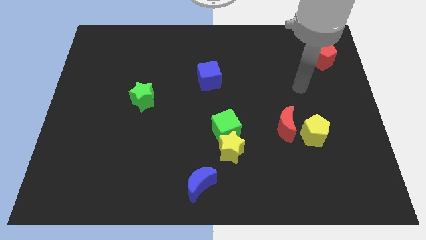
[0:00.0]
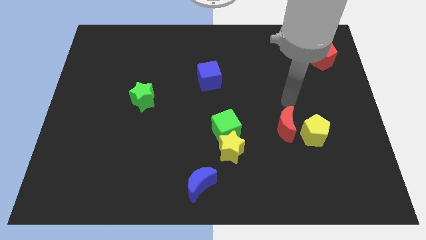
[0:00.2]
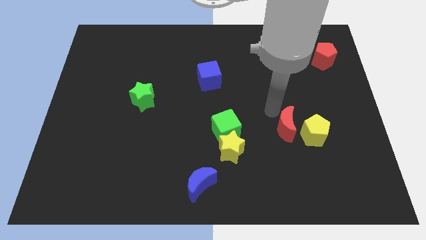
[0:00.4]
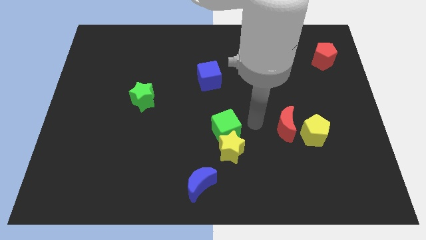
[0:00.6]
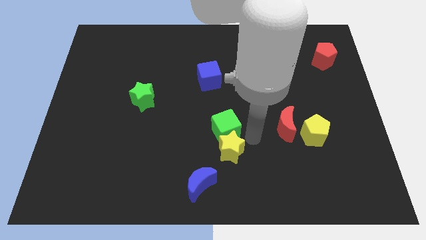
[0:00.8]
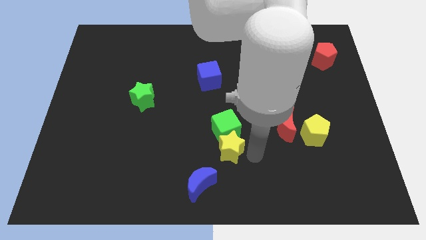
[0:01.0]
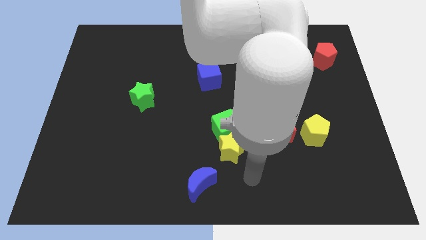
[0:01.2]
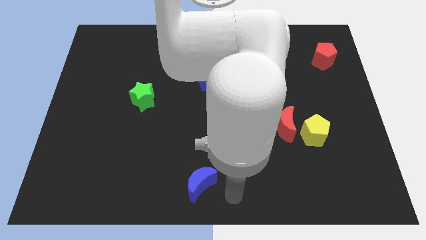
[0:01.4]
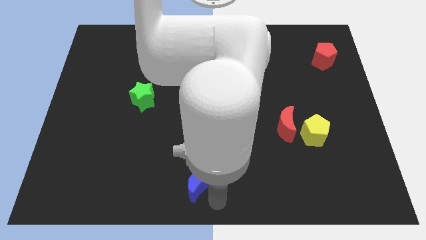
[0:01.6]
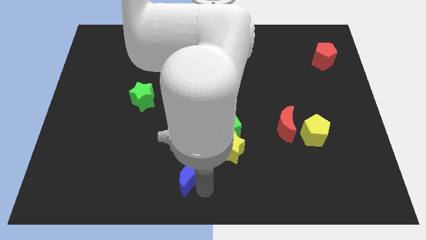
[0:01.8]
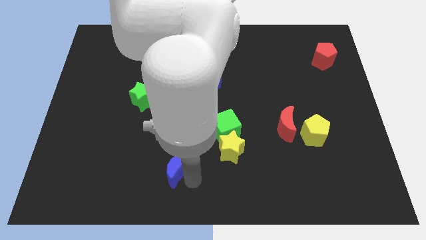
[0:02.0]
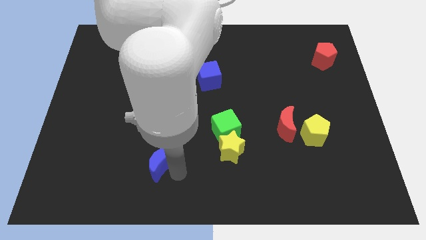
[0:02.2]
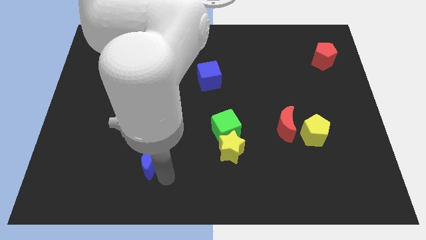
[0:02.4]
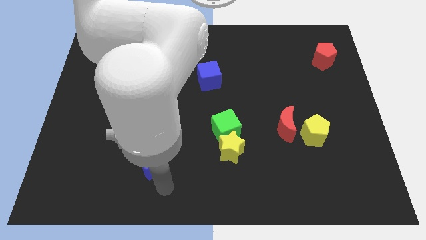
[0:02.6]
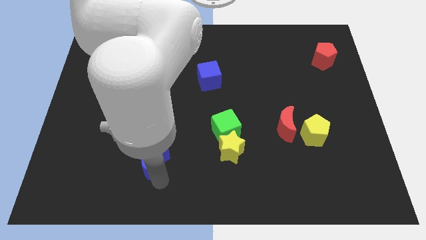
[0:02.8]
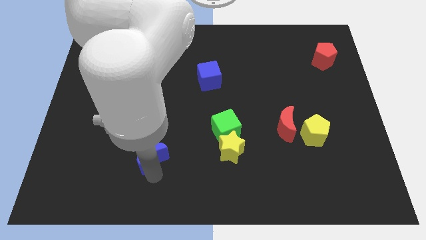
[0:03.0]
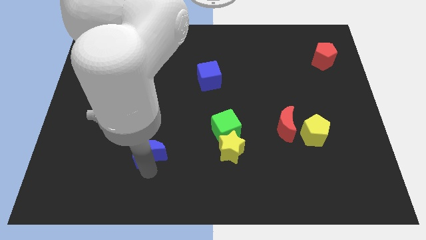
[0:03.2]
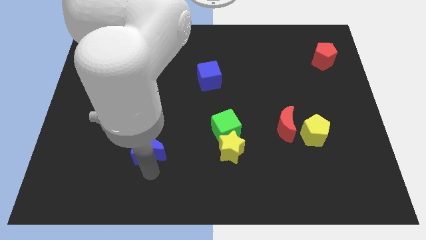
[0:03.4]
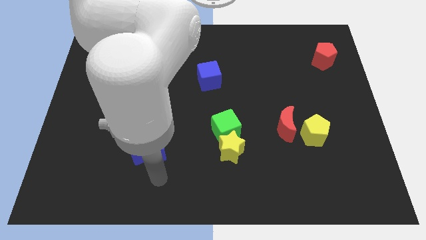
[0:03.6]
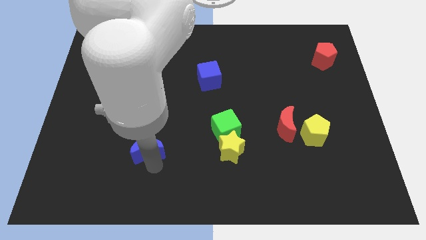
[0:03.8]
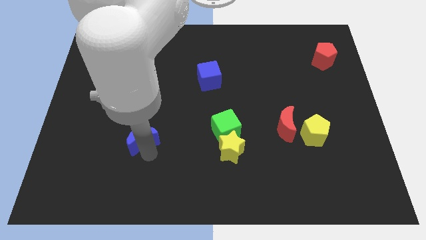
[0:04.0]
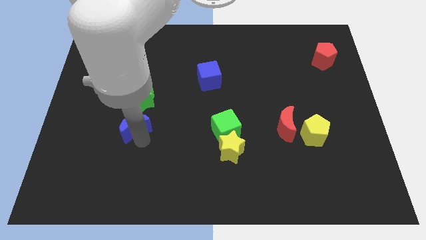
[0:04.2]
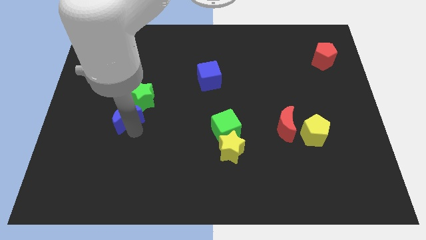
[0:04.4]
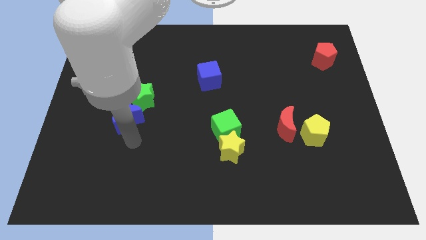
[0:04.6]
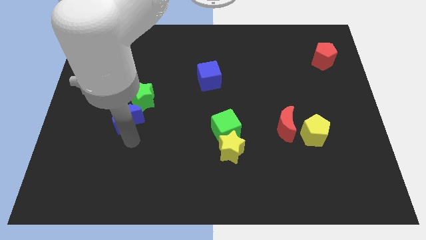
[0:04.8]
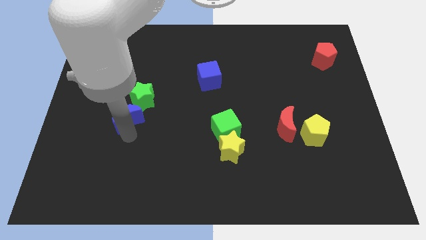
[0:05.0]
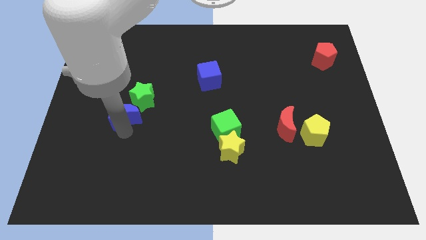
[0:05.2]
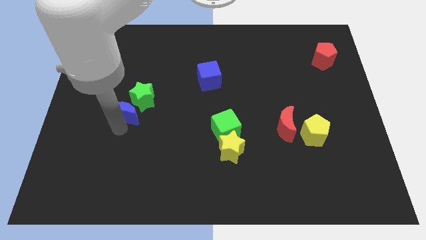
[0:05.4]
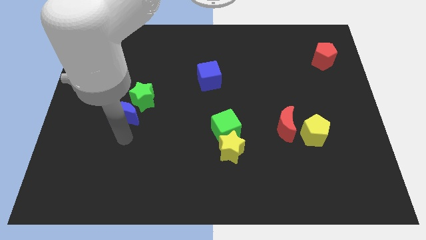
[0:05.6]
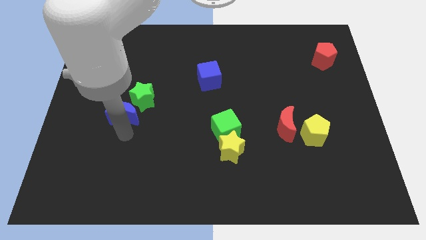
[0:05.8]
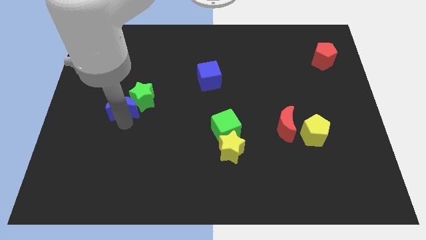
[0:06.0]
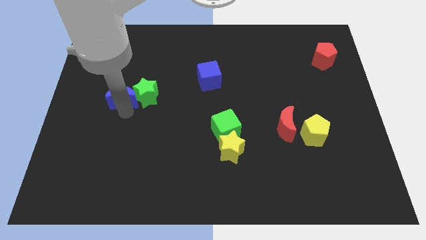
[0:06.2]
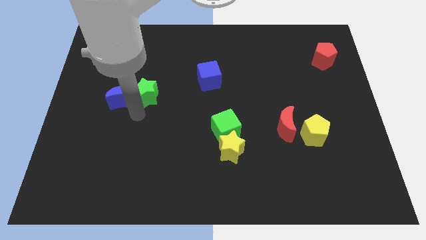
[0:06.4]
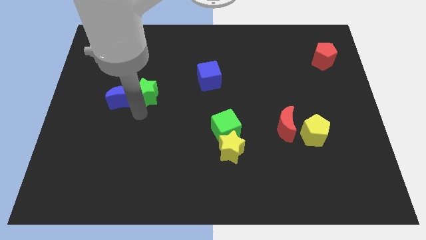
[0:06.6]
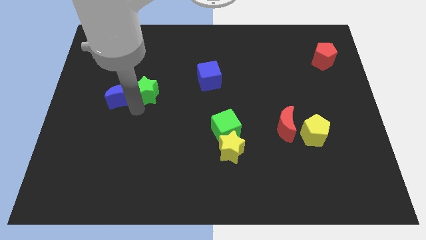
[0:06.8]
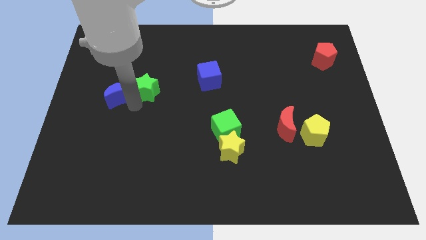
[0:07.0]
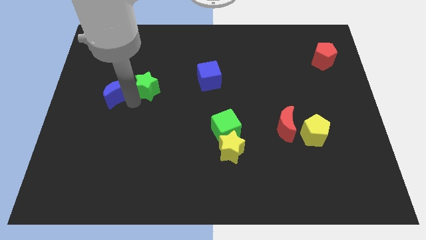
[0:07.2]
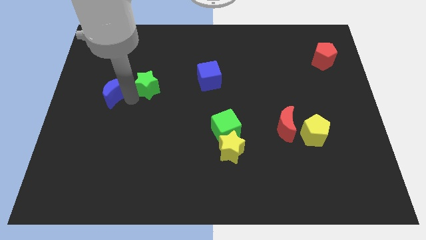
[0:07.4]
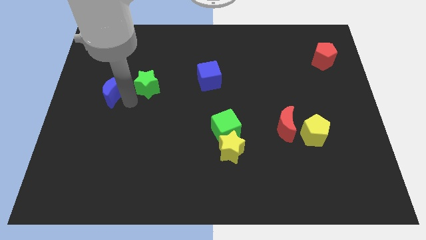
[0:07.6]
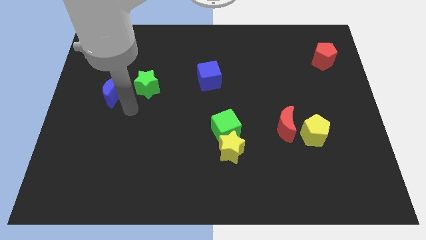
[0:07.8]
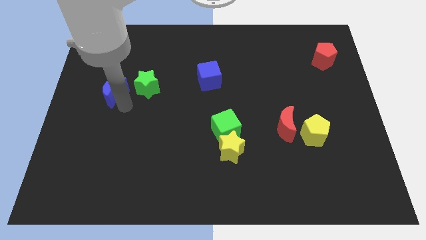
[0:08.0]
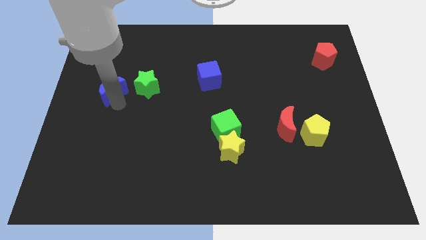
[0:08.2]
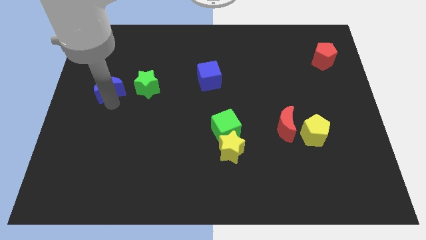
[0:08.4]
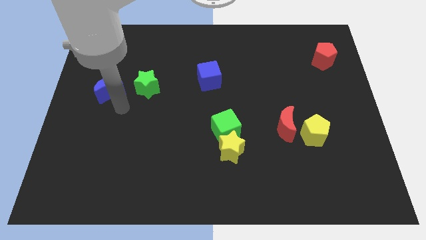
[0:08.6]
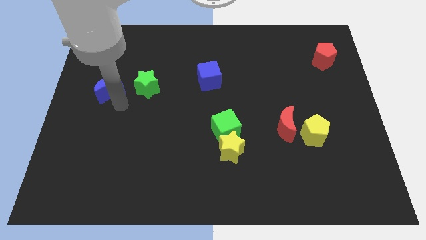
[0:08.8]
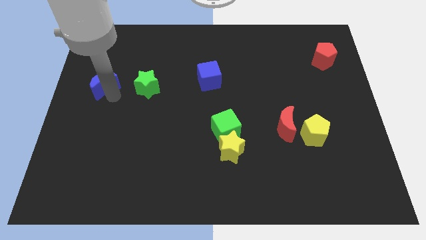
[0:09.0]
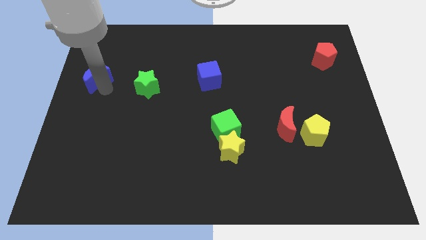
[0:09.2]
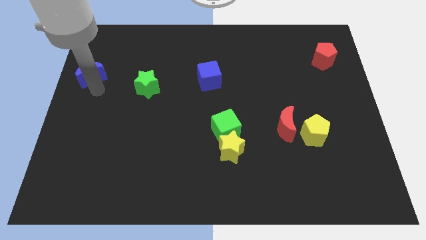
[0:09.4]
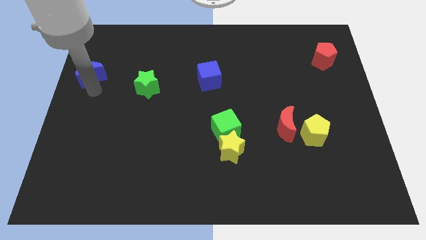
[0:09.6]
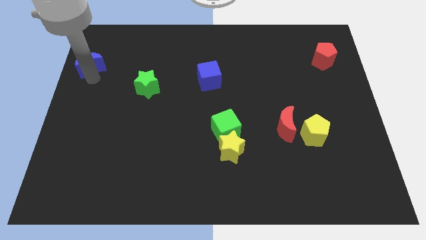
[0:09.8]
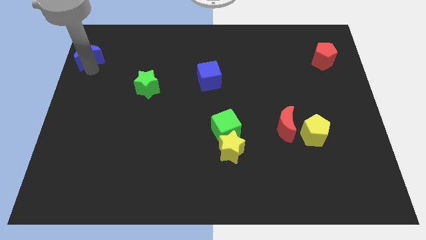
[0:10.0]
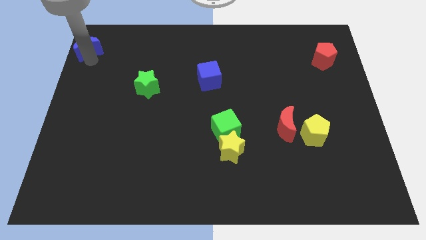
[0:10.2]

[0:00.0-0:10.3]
push the blue moon to the top left of the board

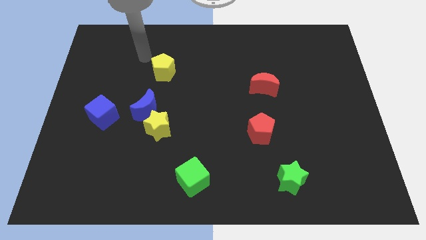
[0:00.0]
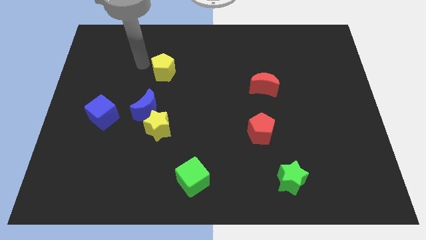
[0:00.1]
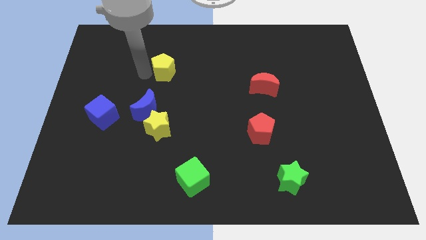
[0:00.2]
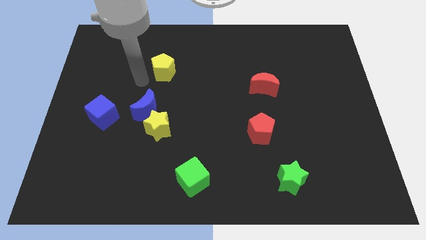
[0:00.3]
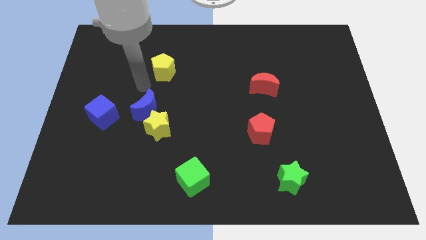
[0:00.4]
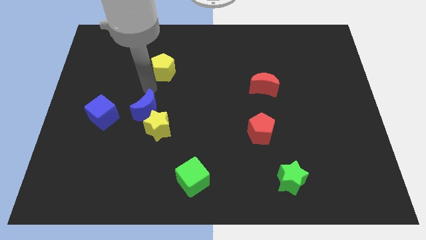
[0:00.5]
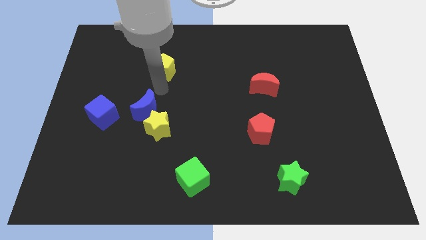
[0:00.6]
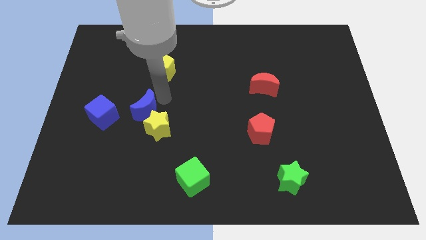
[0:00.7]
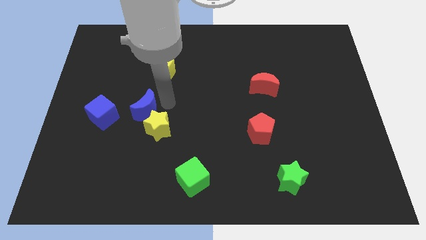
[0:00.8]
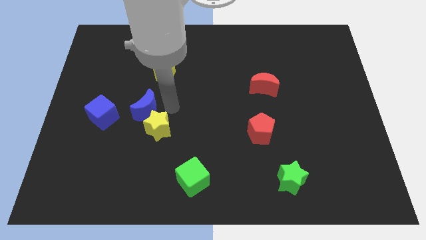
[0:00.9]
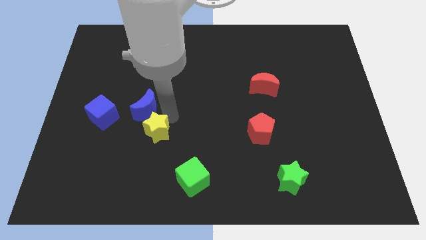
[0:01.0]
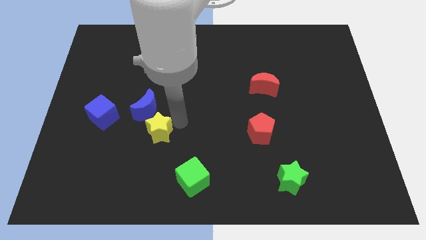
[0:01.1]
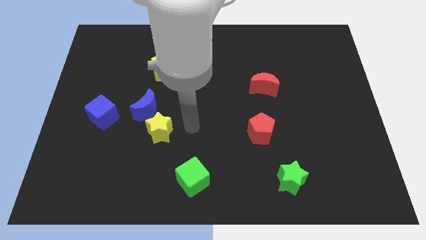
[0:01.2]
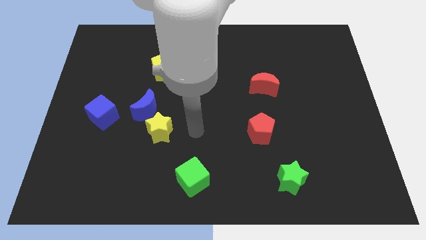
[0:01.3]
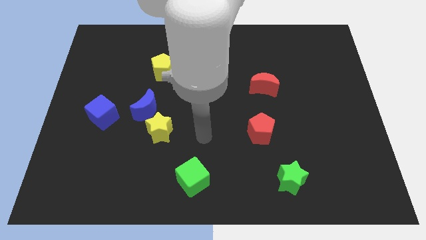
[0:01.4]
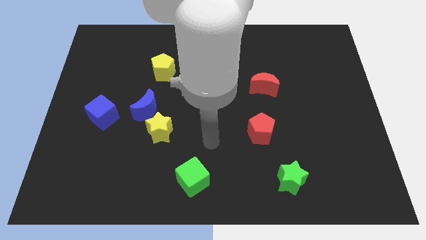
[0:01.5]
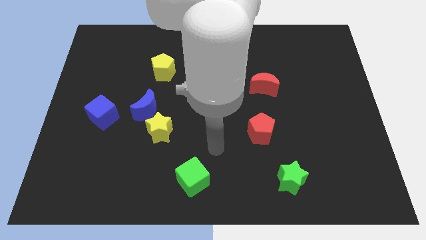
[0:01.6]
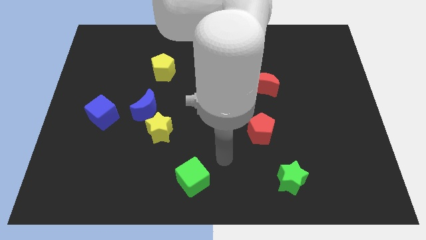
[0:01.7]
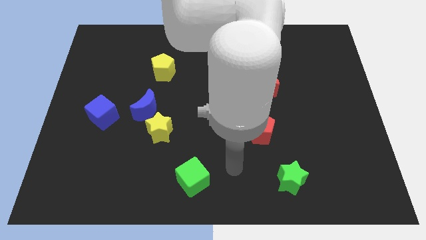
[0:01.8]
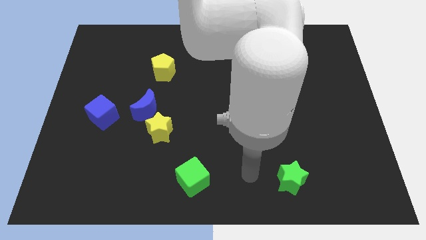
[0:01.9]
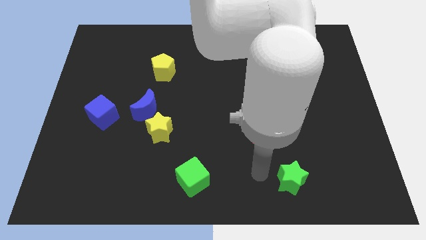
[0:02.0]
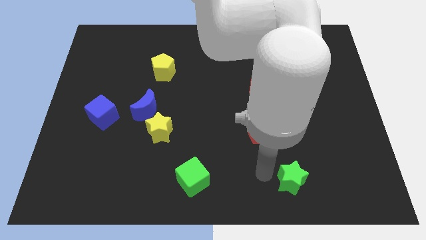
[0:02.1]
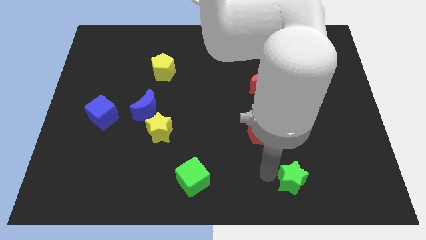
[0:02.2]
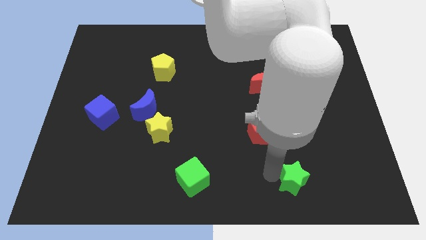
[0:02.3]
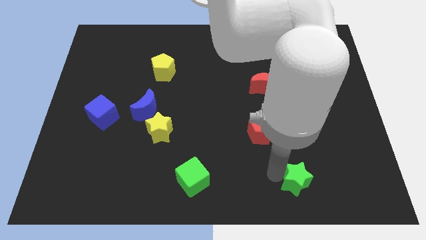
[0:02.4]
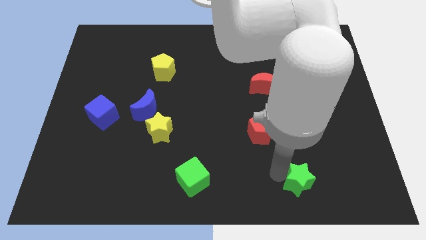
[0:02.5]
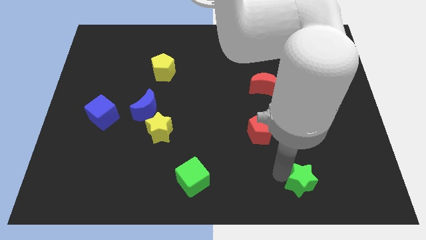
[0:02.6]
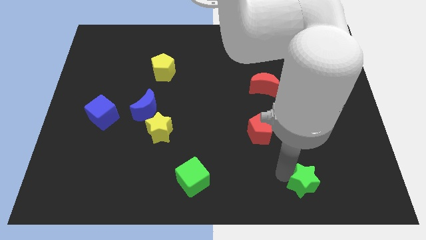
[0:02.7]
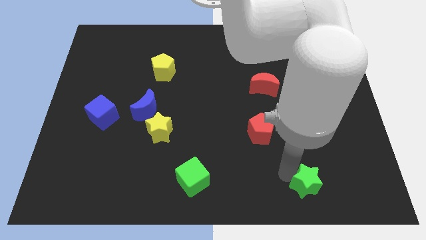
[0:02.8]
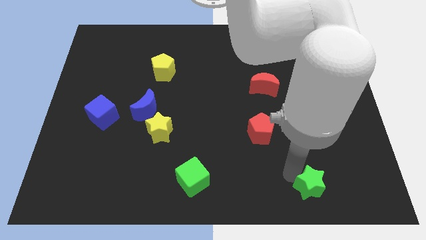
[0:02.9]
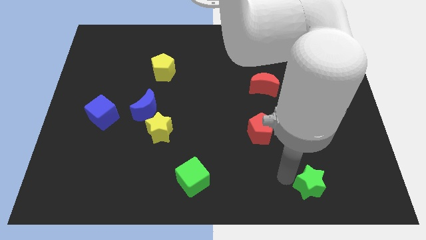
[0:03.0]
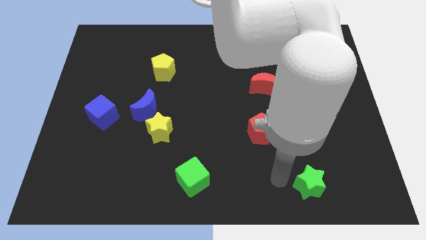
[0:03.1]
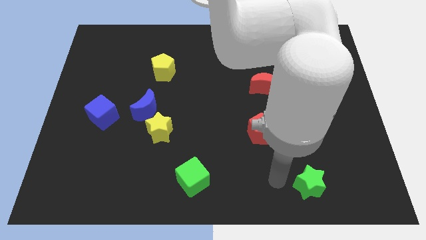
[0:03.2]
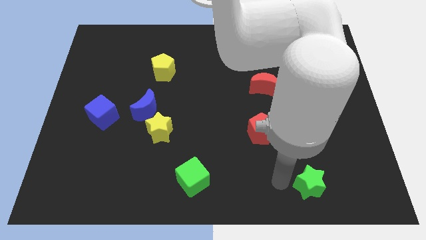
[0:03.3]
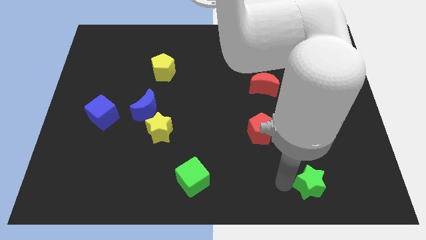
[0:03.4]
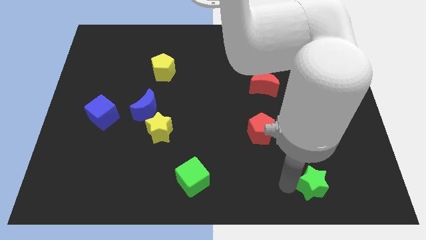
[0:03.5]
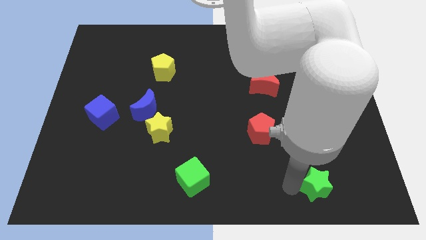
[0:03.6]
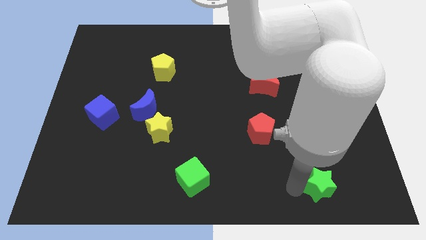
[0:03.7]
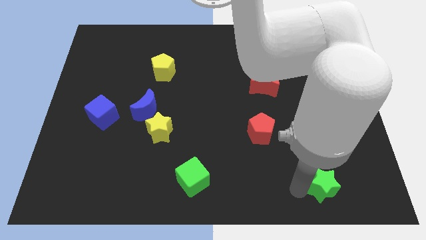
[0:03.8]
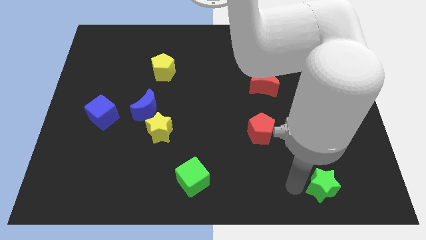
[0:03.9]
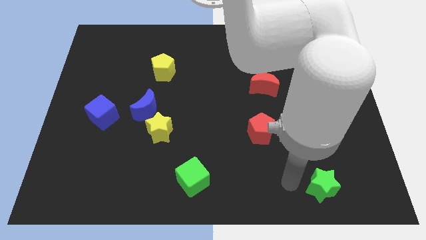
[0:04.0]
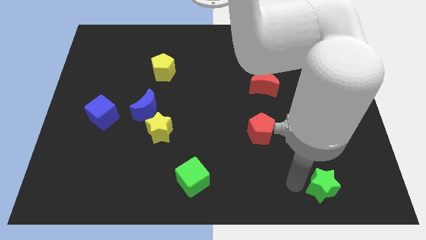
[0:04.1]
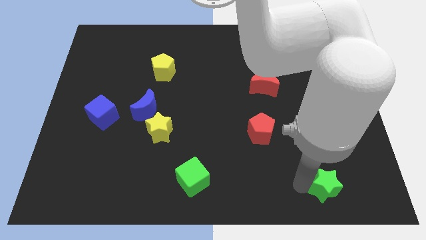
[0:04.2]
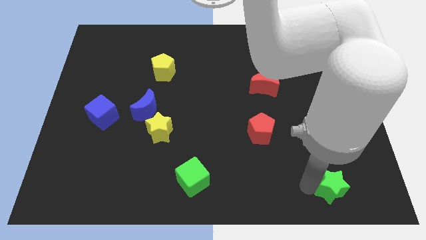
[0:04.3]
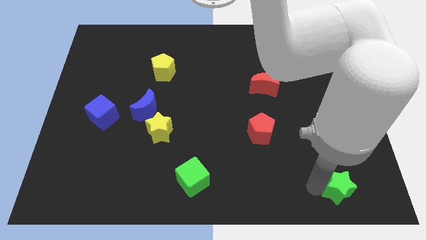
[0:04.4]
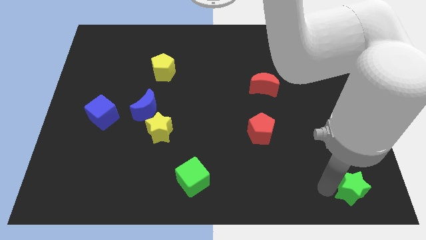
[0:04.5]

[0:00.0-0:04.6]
slide the green star to the lower right corner
